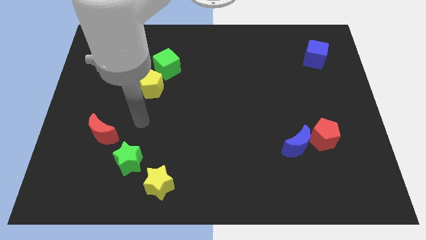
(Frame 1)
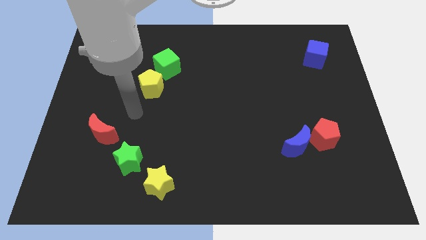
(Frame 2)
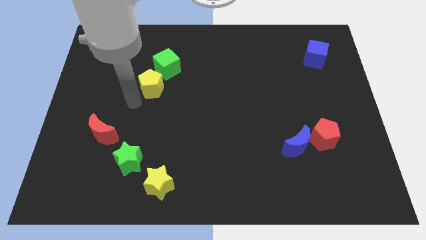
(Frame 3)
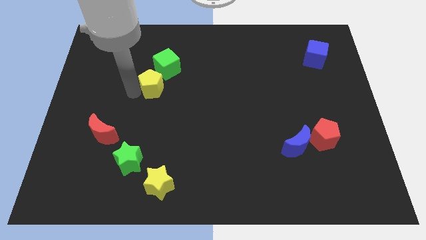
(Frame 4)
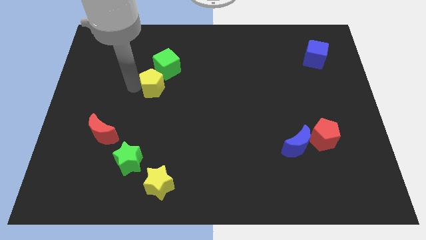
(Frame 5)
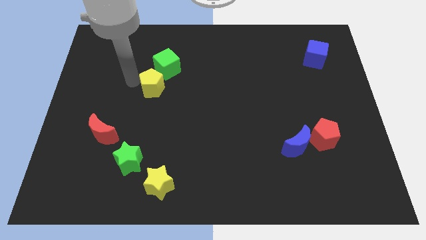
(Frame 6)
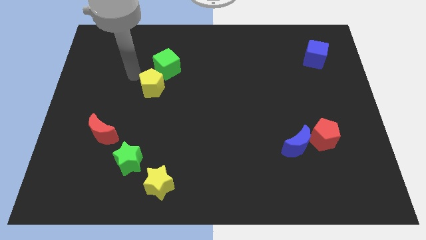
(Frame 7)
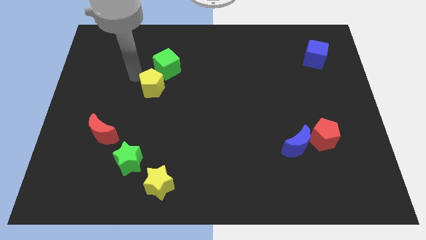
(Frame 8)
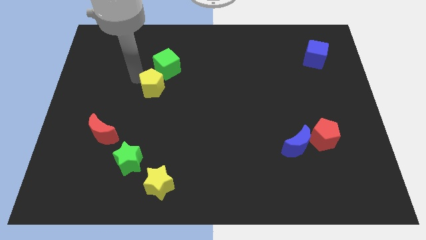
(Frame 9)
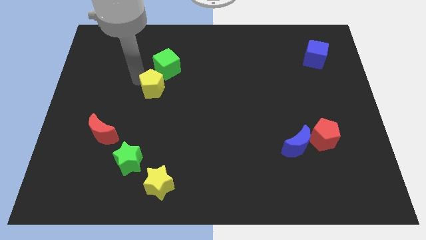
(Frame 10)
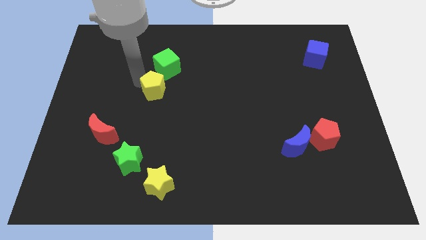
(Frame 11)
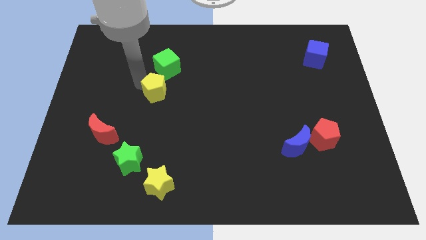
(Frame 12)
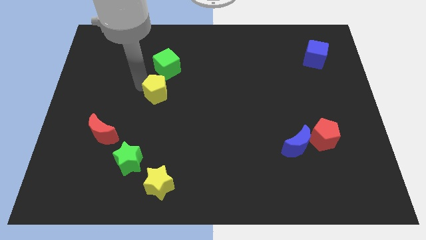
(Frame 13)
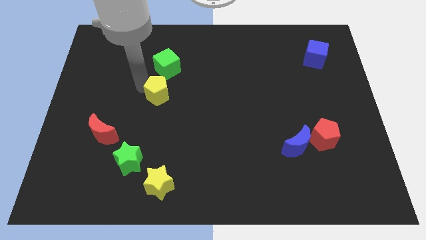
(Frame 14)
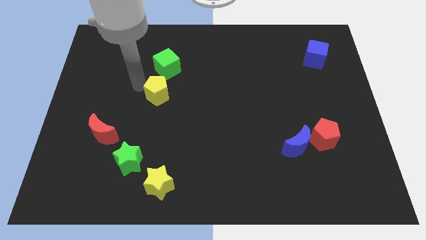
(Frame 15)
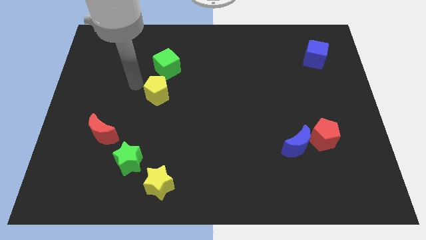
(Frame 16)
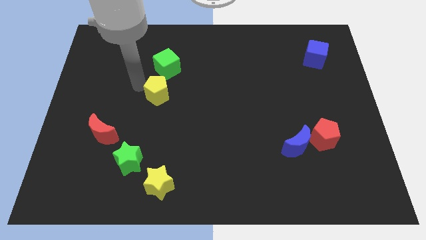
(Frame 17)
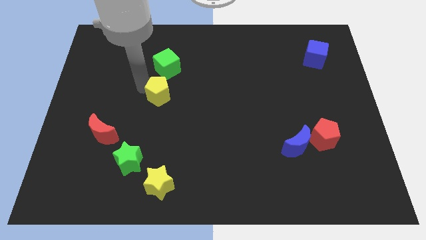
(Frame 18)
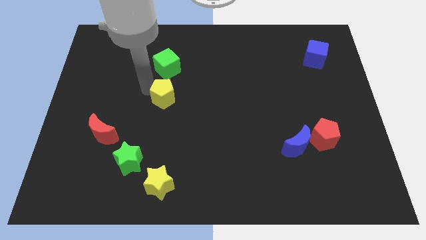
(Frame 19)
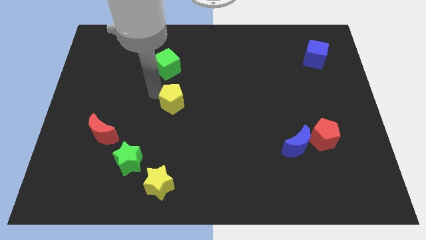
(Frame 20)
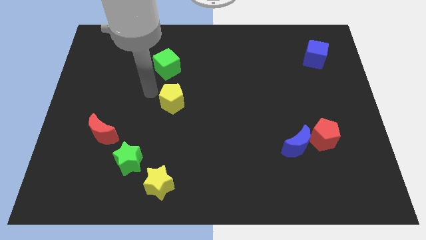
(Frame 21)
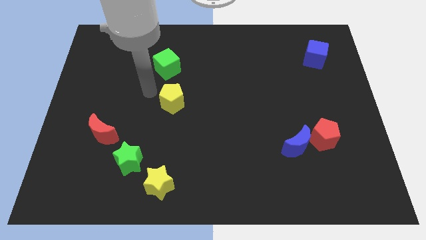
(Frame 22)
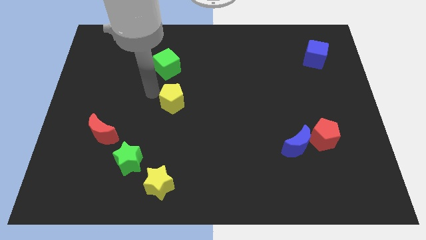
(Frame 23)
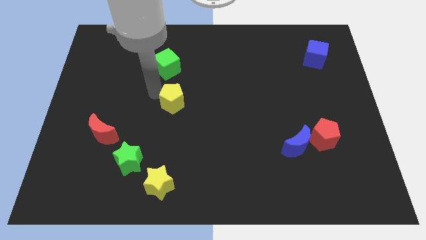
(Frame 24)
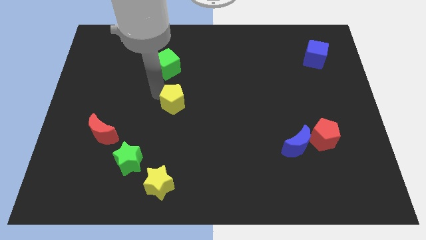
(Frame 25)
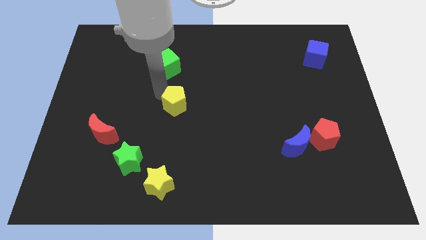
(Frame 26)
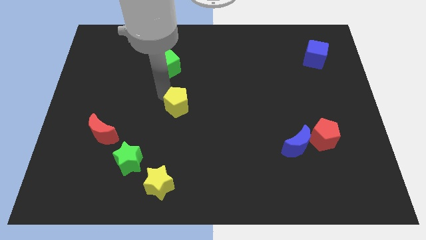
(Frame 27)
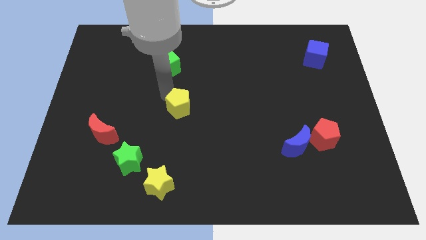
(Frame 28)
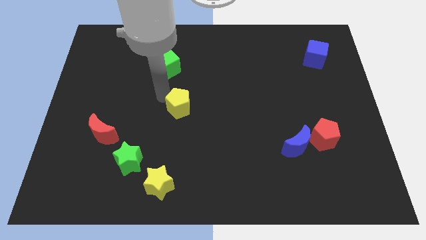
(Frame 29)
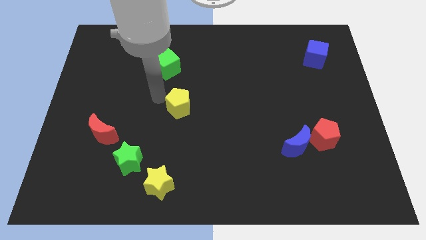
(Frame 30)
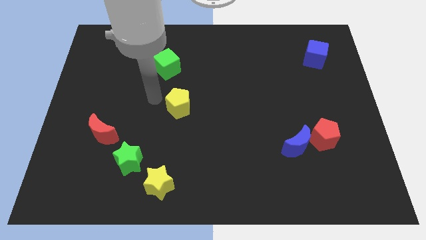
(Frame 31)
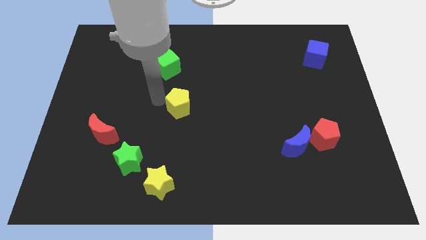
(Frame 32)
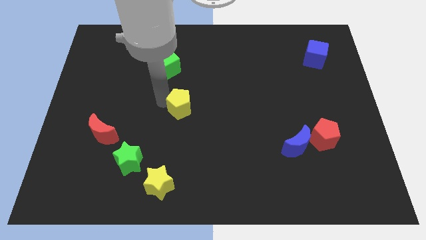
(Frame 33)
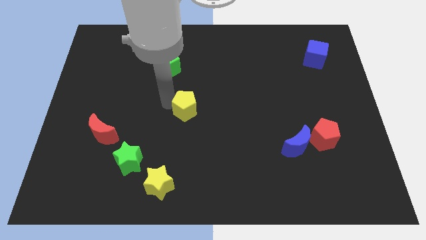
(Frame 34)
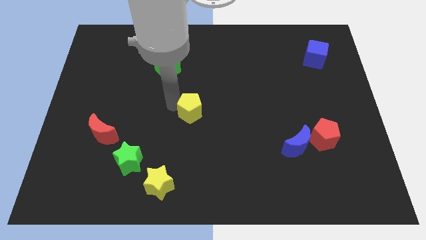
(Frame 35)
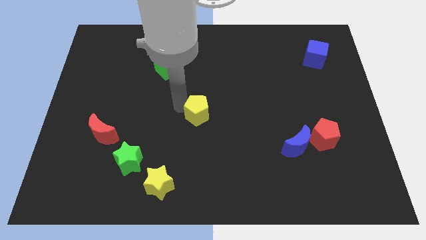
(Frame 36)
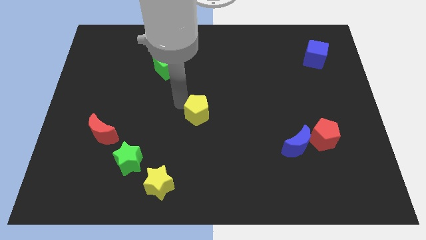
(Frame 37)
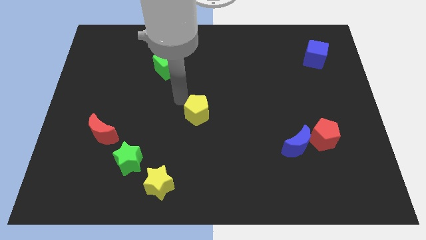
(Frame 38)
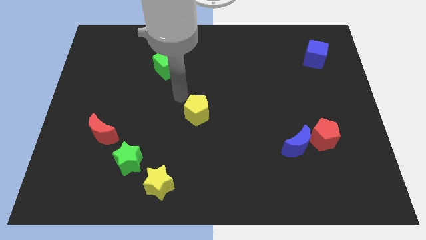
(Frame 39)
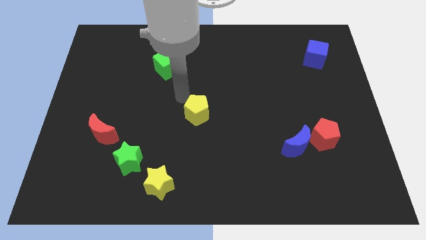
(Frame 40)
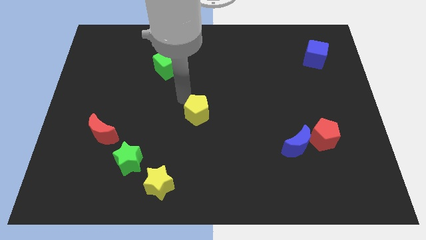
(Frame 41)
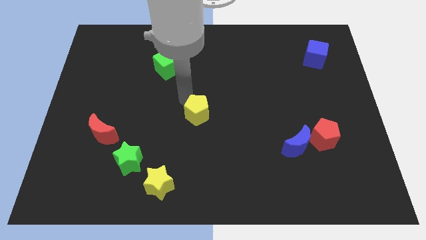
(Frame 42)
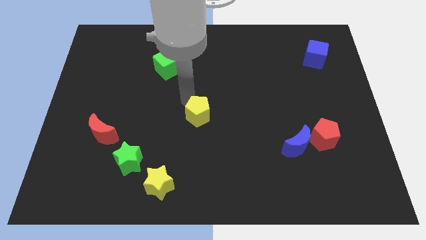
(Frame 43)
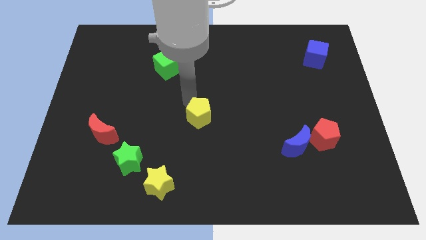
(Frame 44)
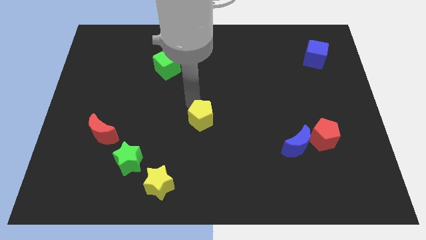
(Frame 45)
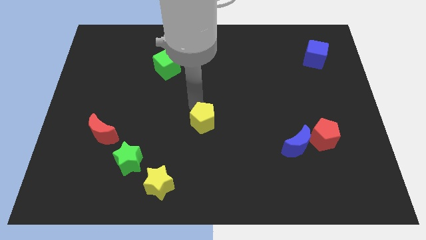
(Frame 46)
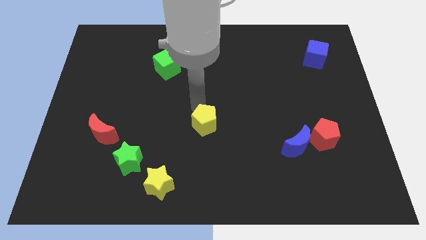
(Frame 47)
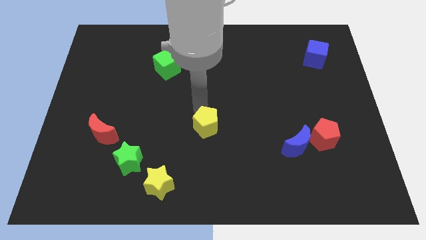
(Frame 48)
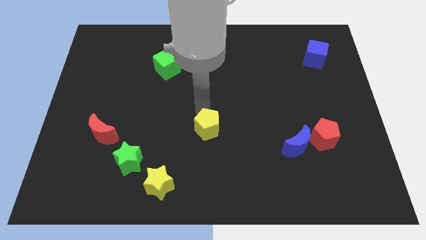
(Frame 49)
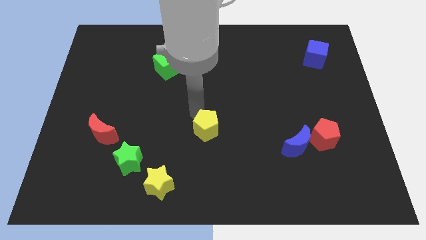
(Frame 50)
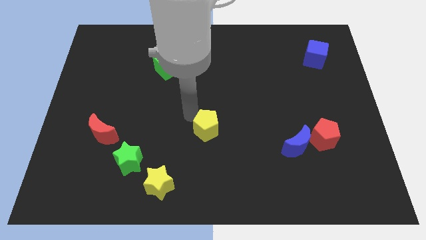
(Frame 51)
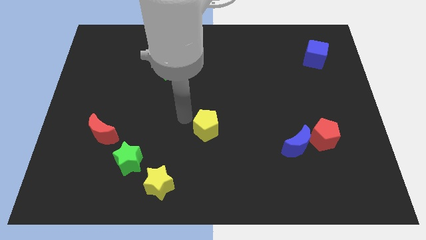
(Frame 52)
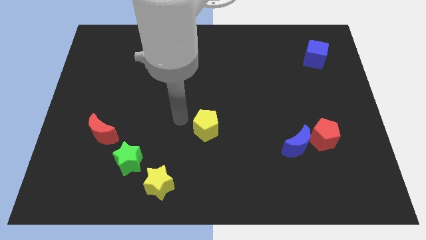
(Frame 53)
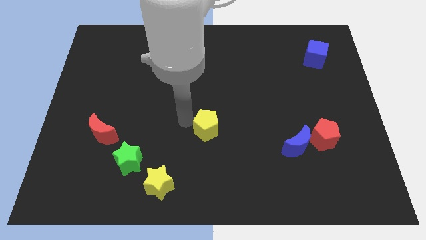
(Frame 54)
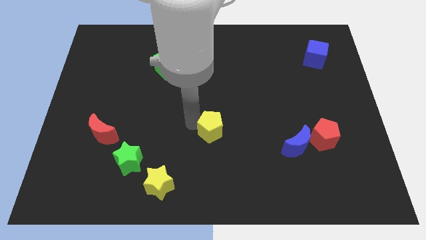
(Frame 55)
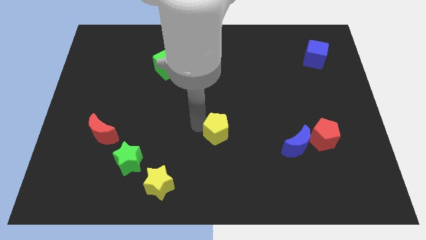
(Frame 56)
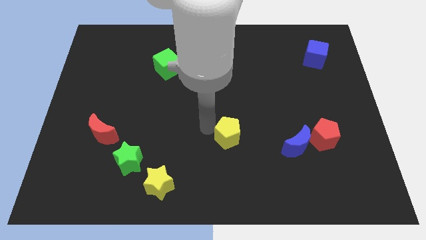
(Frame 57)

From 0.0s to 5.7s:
move the yellow pentagon to the left of the blue moon

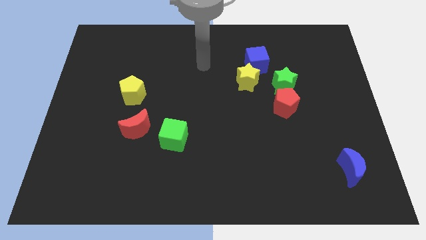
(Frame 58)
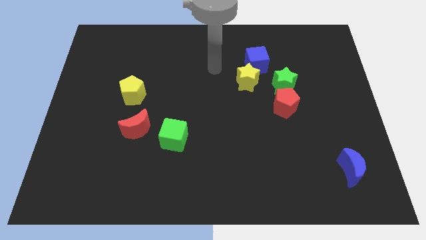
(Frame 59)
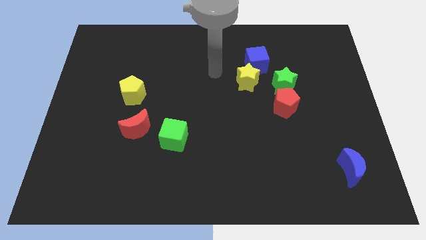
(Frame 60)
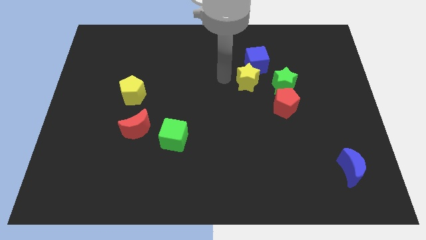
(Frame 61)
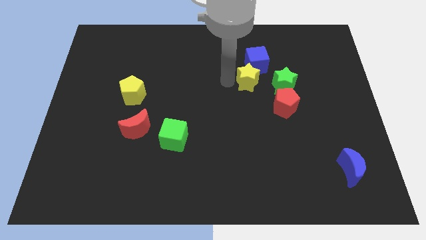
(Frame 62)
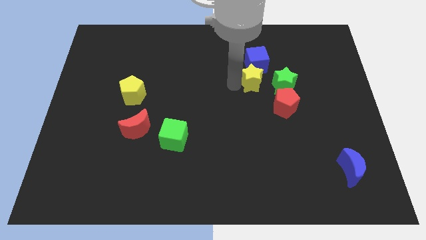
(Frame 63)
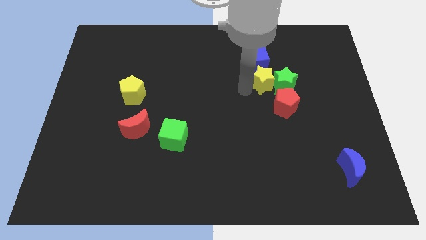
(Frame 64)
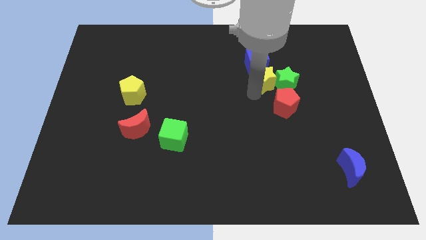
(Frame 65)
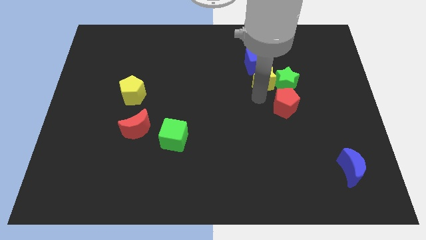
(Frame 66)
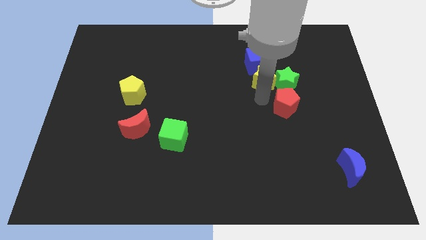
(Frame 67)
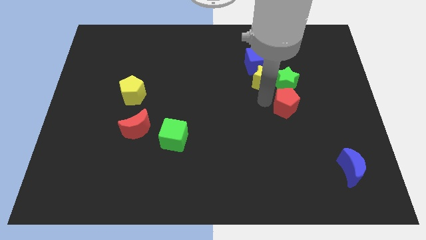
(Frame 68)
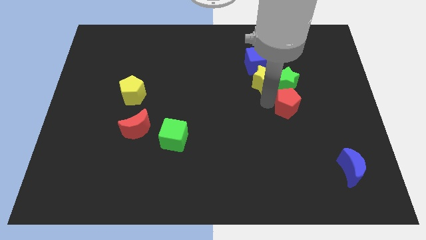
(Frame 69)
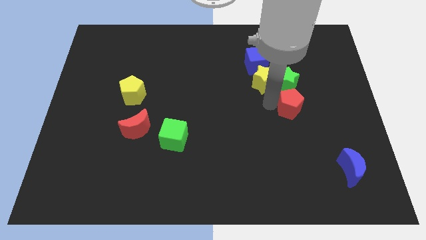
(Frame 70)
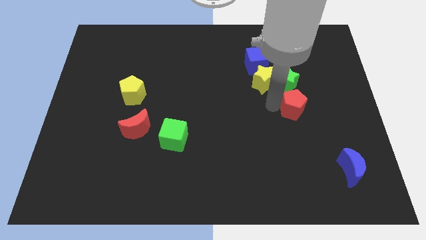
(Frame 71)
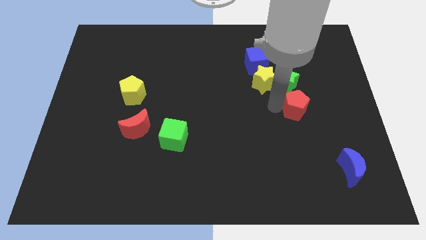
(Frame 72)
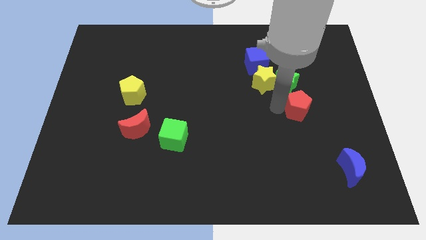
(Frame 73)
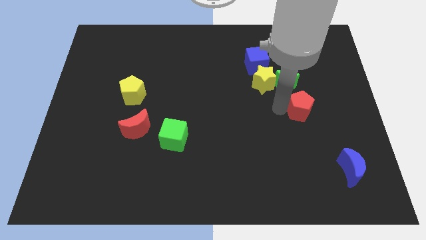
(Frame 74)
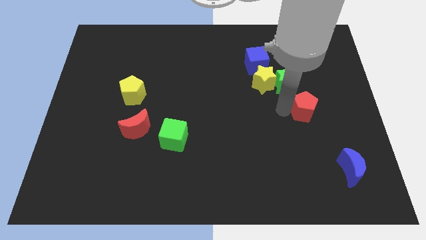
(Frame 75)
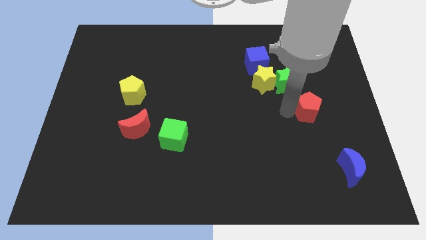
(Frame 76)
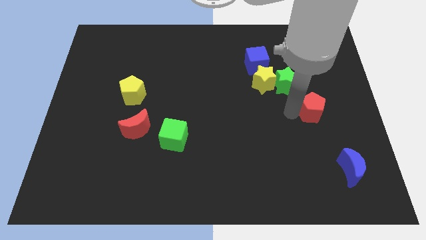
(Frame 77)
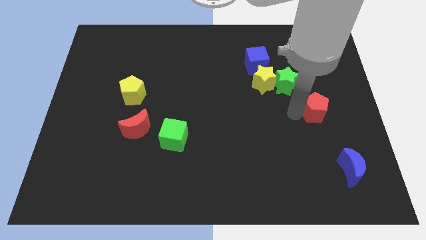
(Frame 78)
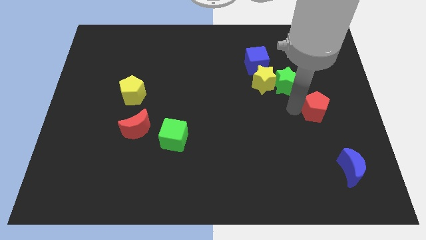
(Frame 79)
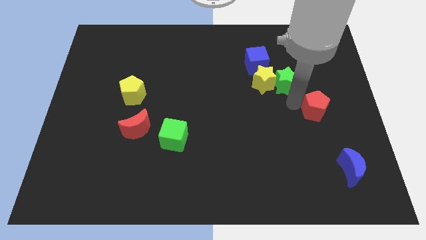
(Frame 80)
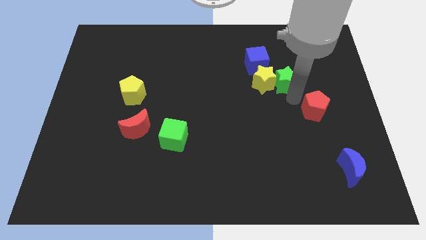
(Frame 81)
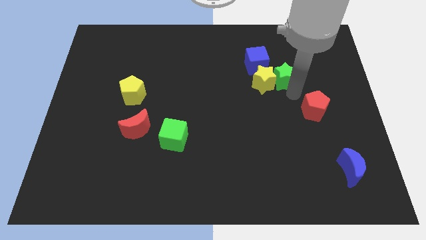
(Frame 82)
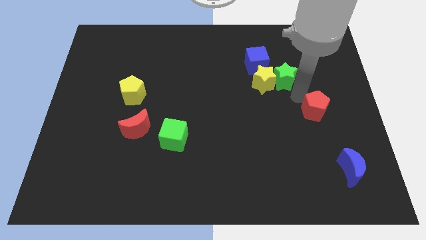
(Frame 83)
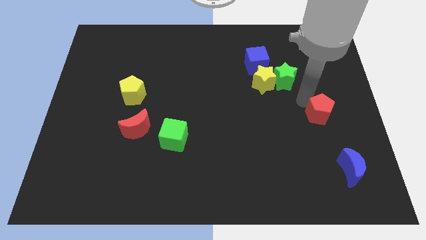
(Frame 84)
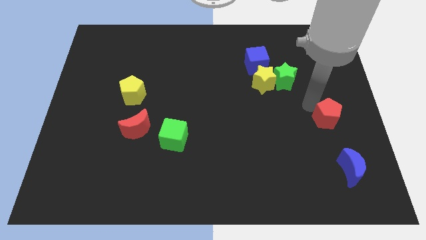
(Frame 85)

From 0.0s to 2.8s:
move the red pentagon above the blue moon
